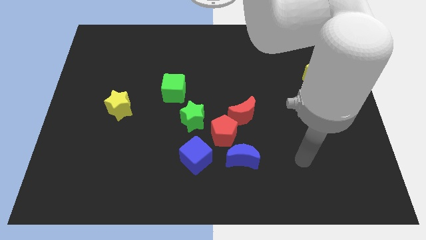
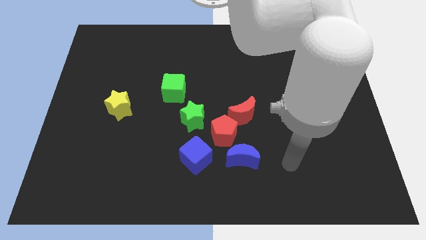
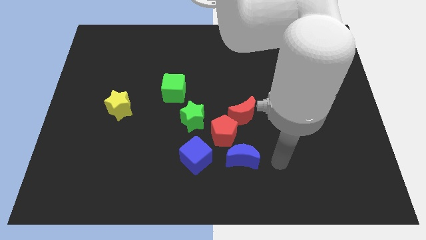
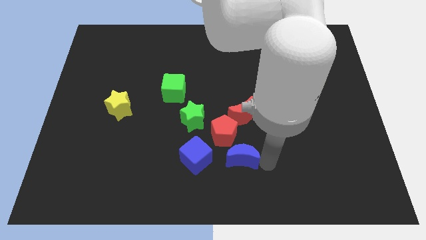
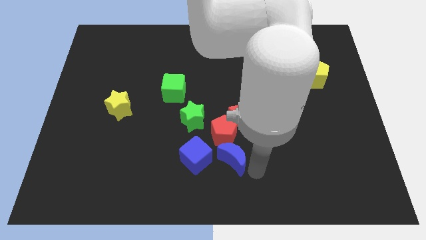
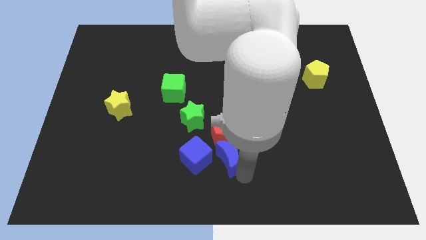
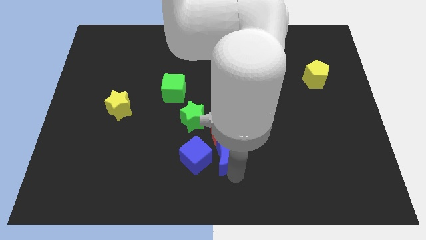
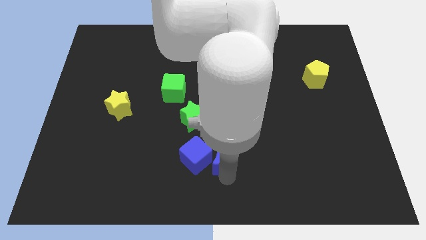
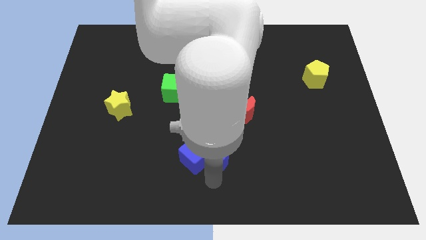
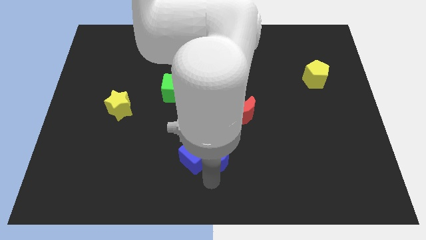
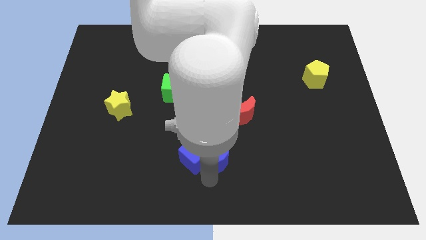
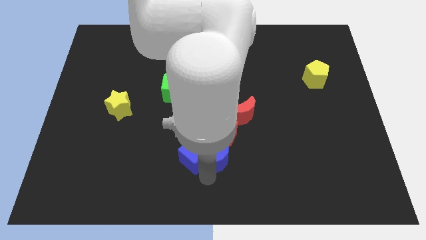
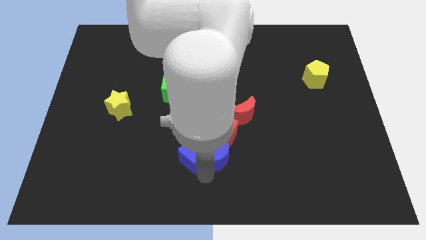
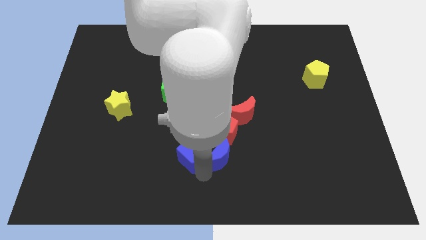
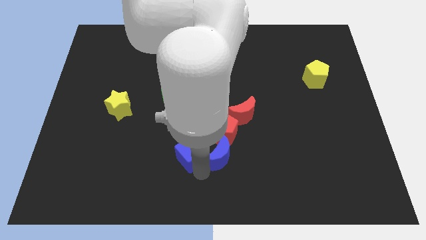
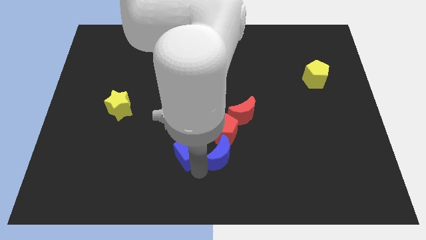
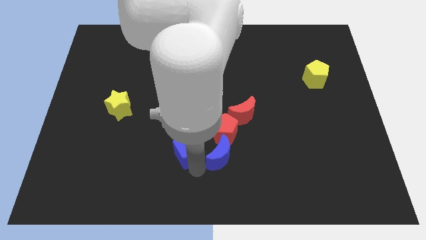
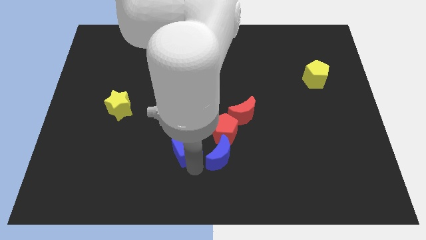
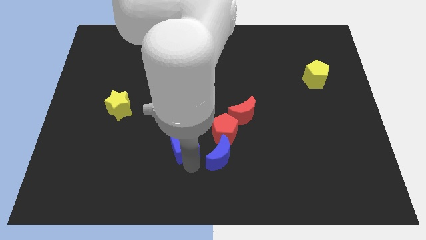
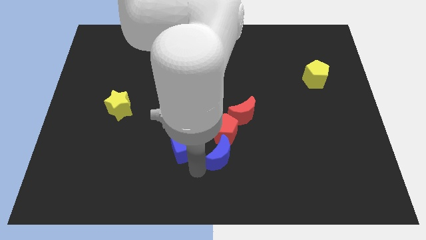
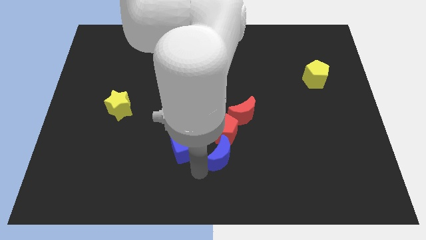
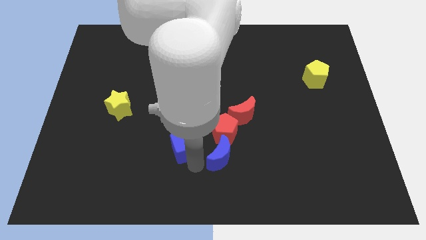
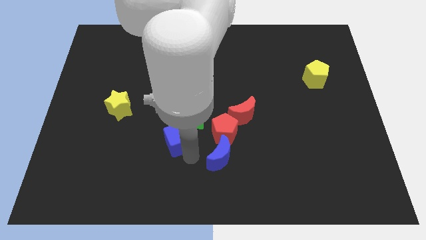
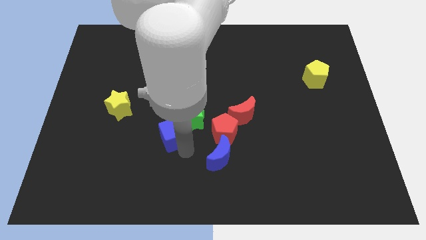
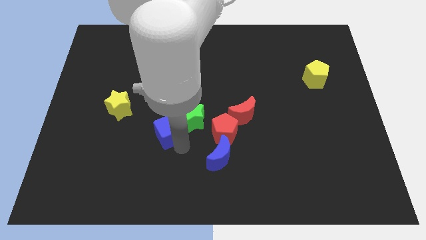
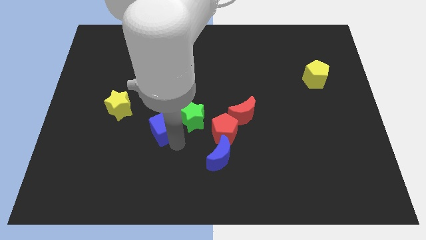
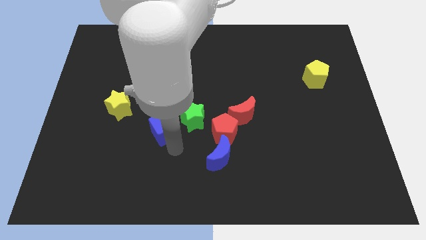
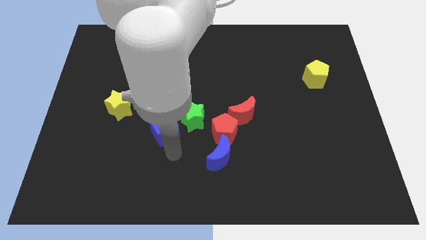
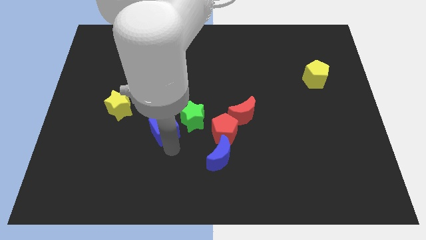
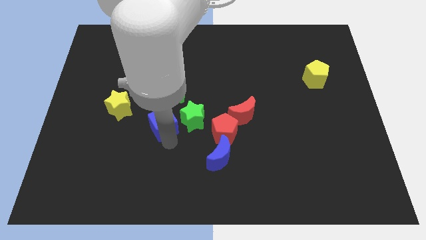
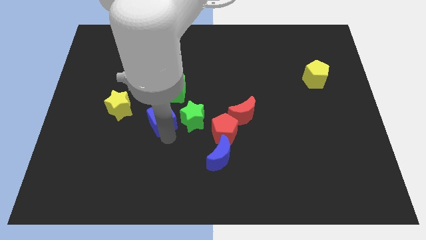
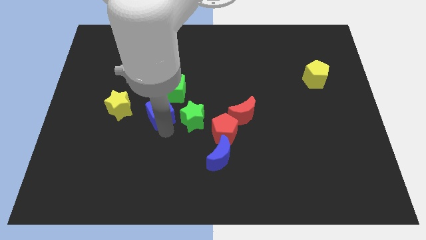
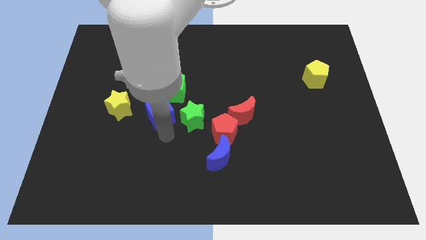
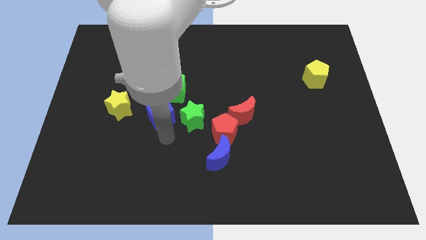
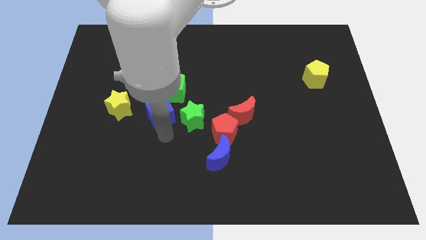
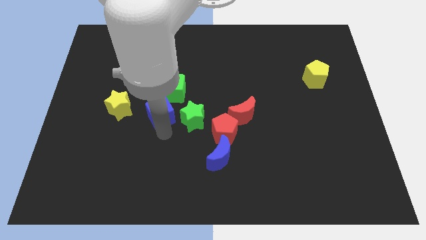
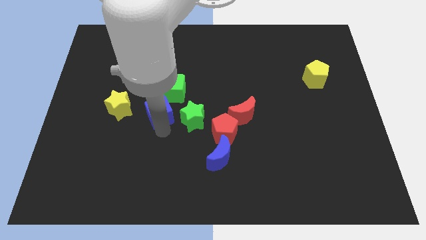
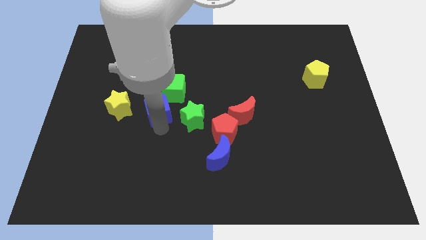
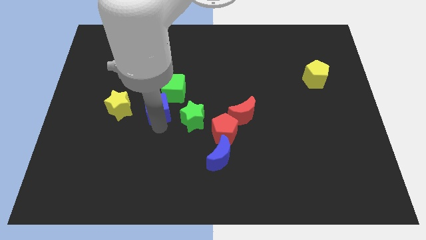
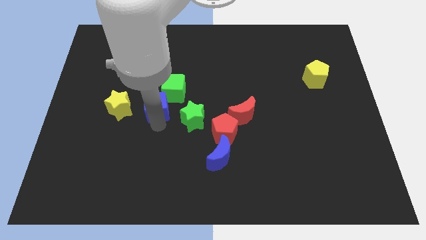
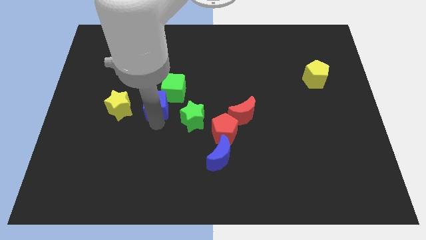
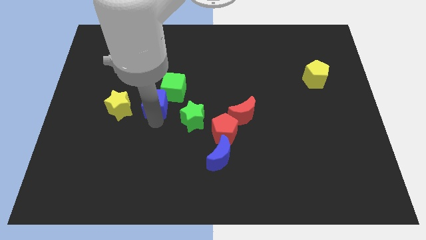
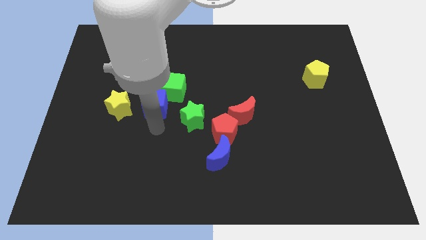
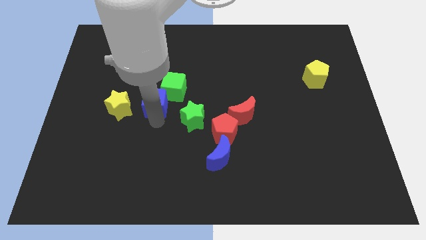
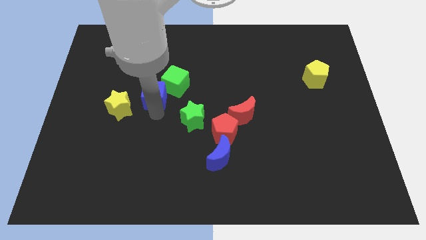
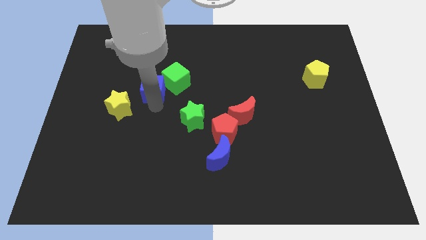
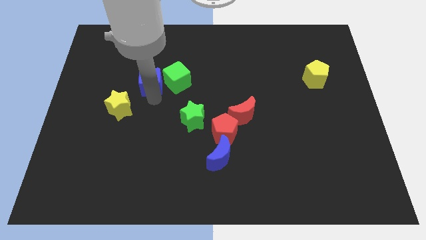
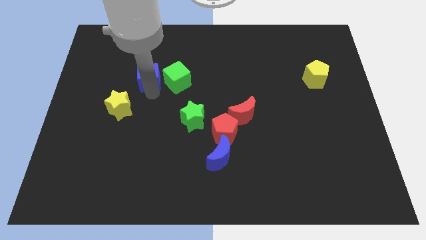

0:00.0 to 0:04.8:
move the blue cube to the top left side of the green cube

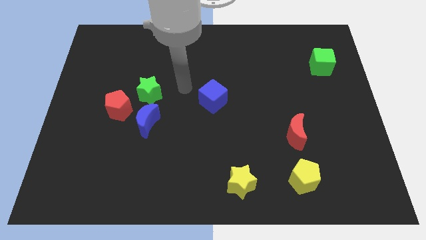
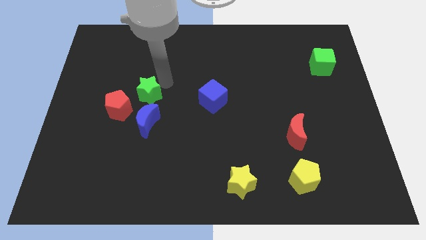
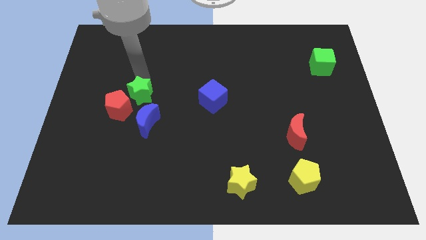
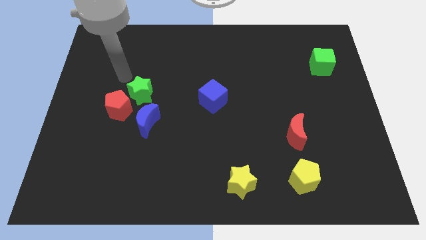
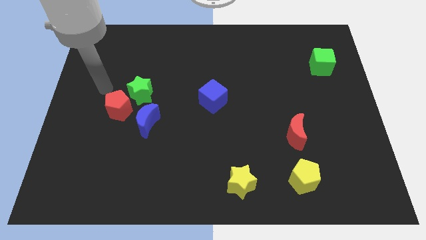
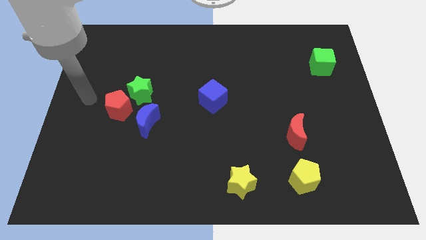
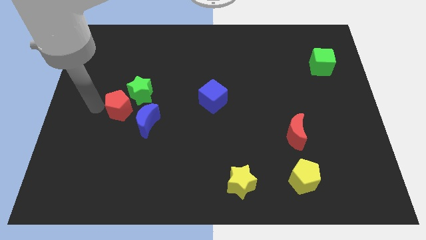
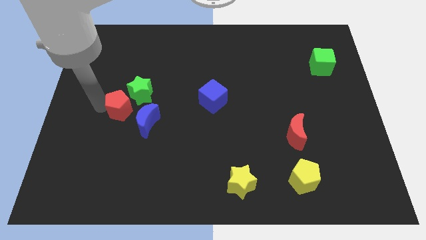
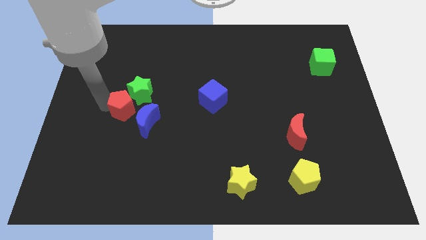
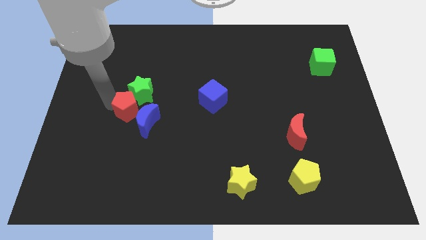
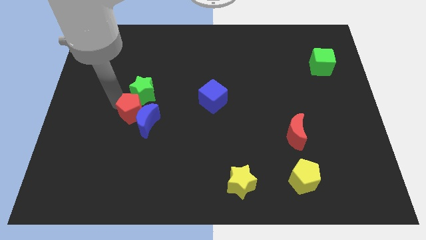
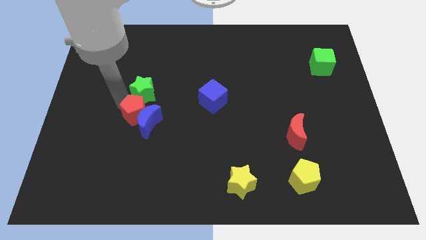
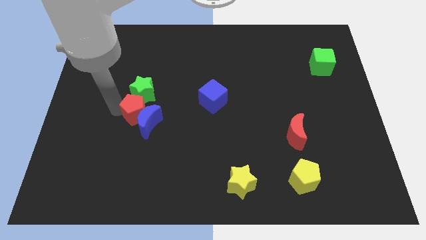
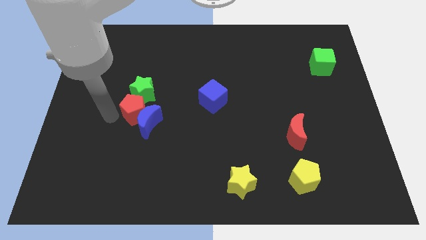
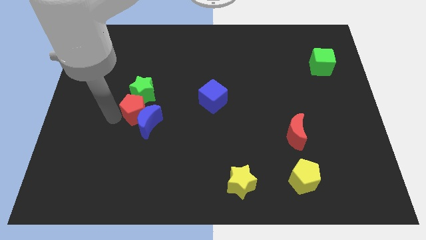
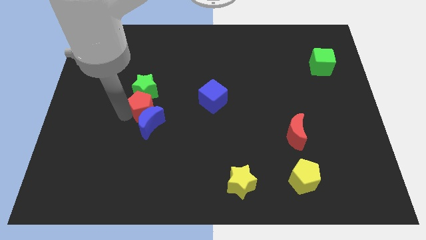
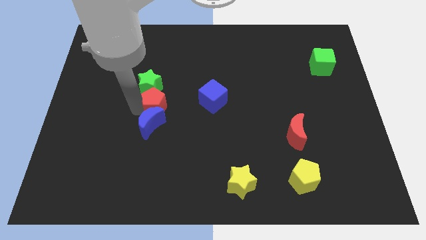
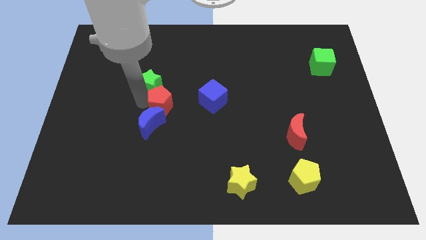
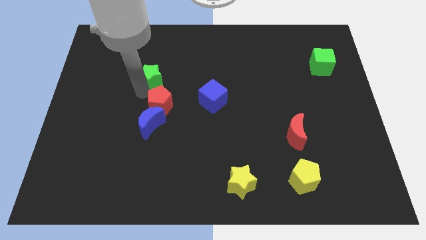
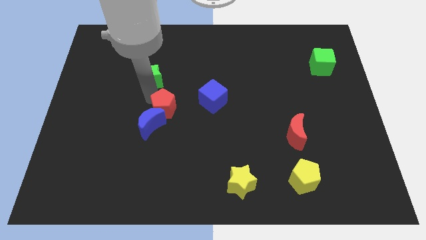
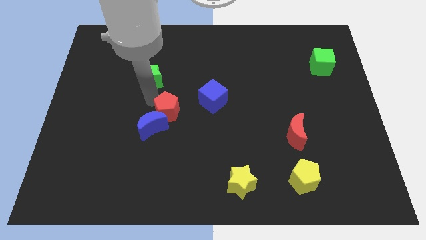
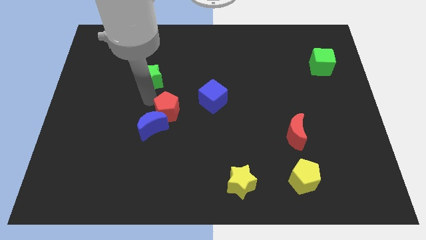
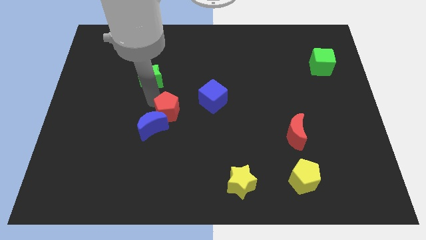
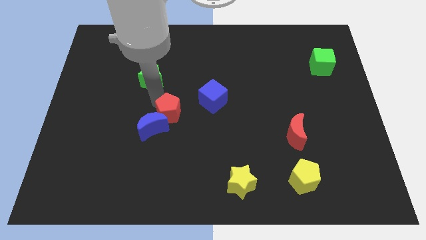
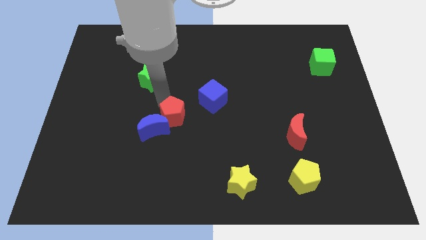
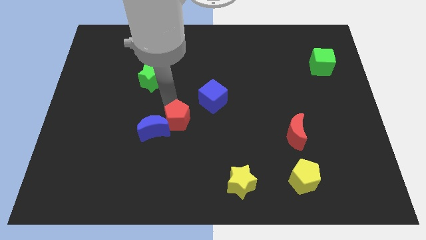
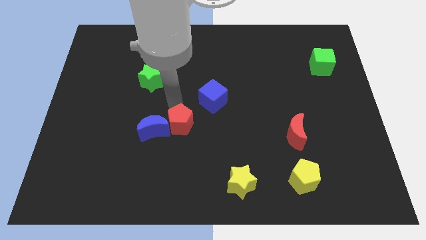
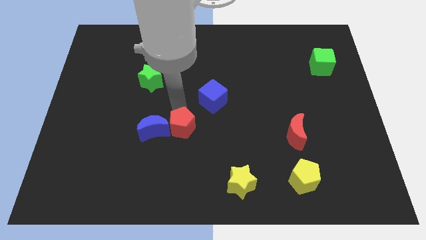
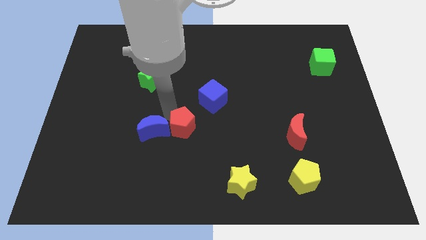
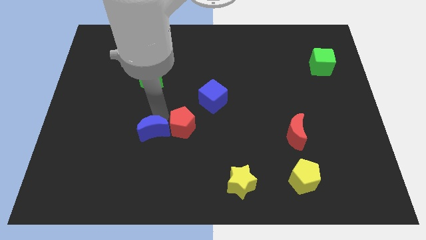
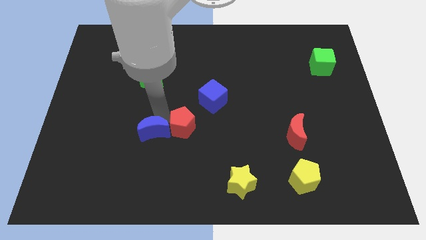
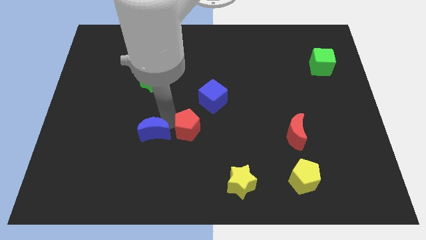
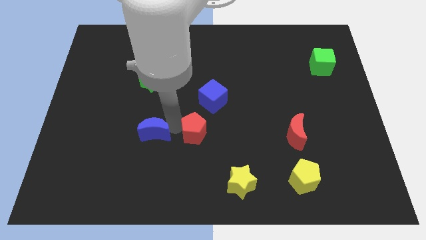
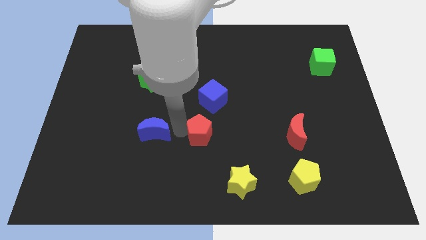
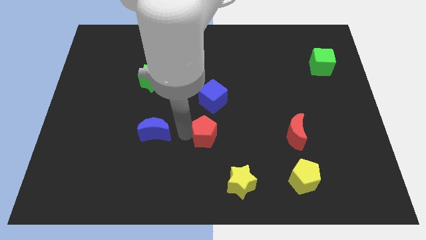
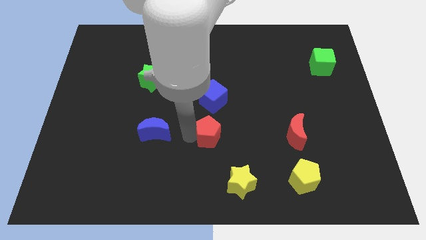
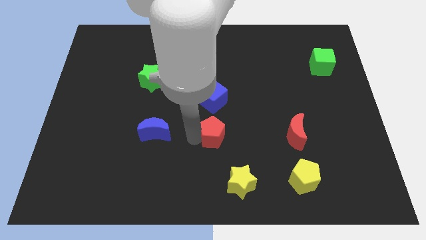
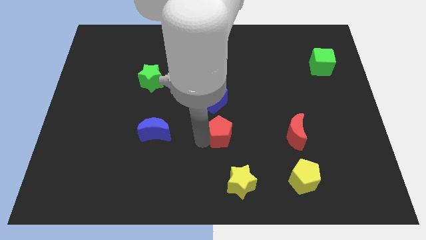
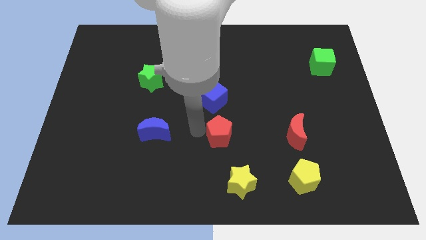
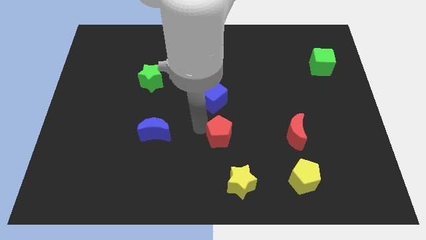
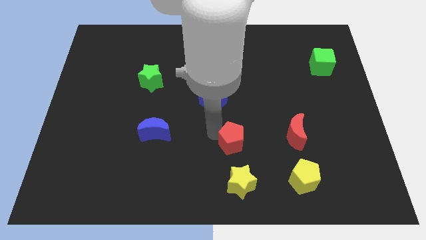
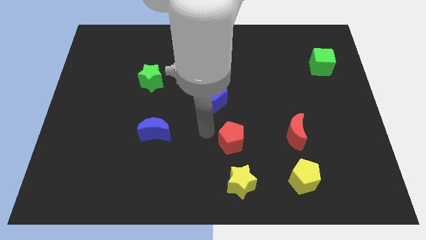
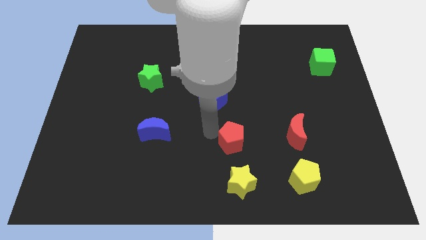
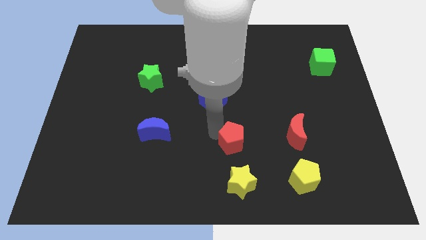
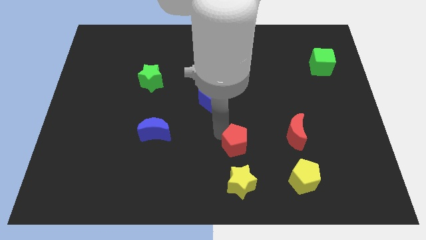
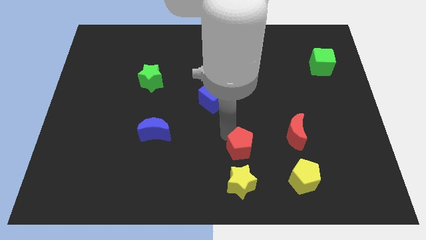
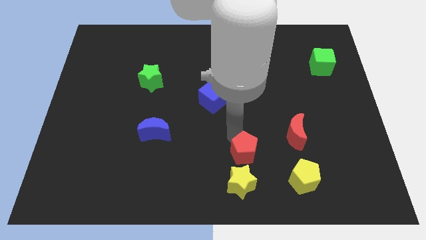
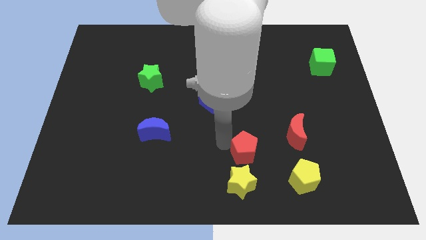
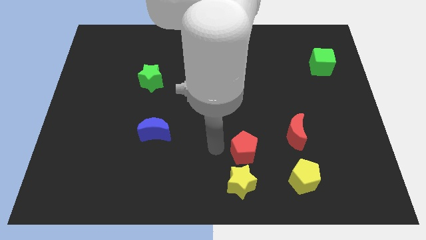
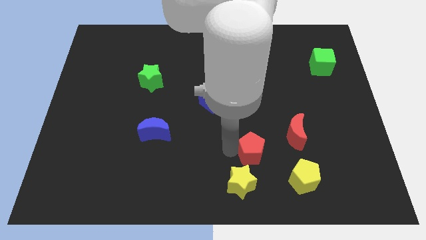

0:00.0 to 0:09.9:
move the red pentagon diagonally down and to the left of the red moon
